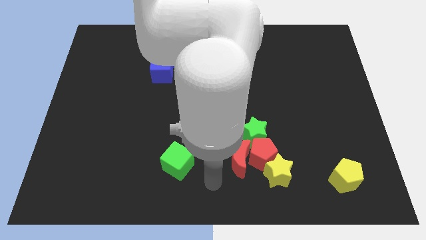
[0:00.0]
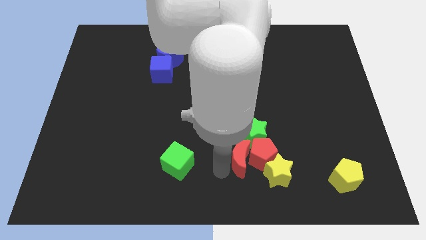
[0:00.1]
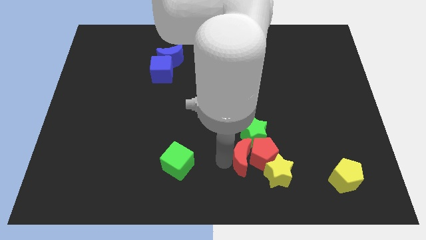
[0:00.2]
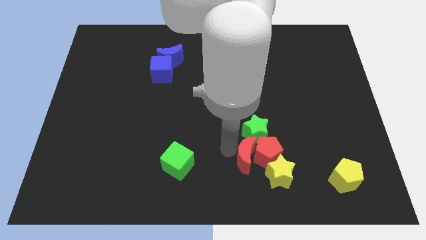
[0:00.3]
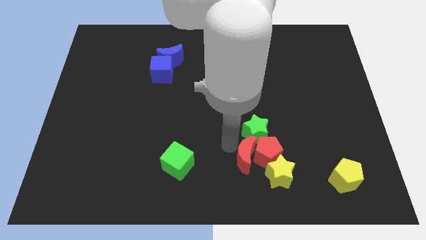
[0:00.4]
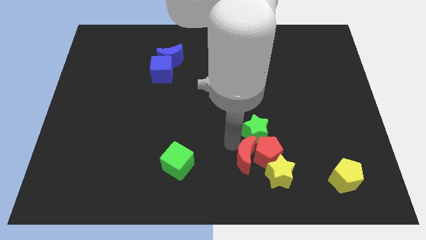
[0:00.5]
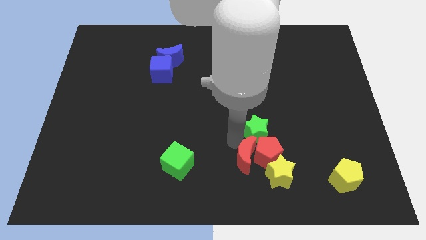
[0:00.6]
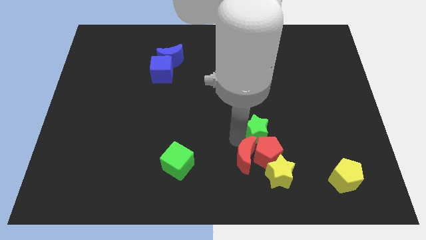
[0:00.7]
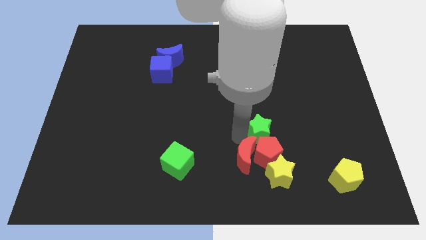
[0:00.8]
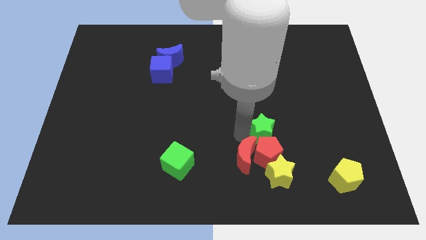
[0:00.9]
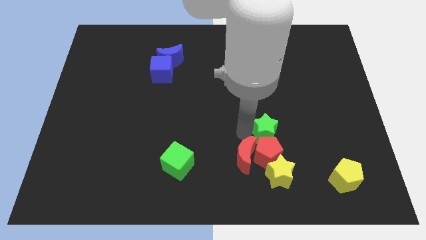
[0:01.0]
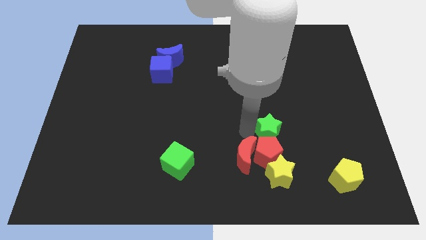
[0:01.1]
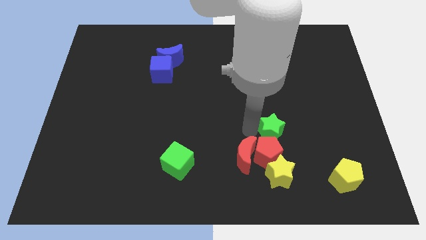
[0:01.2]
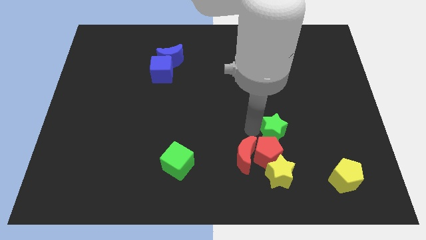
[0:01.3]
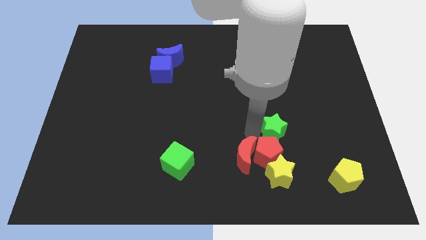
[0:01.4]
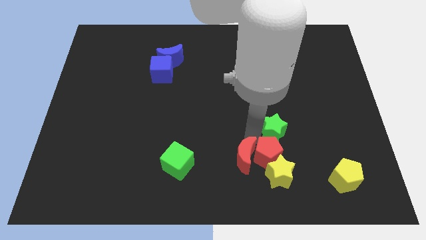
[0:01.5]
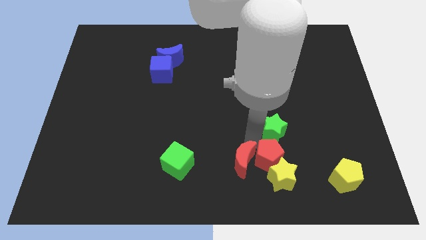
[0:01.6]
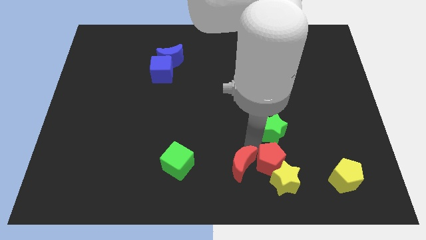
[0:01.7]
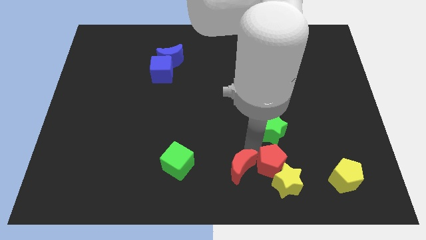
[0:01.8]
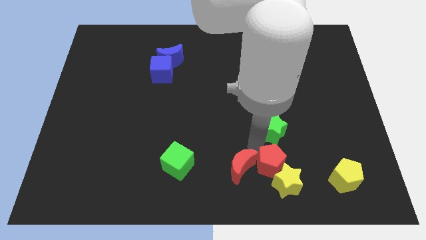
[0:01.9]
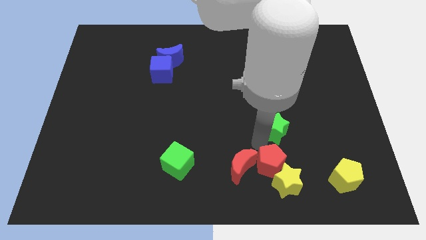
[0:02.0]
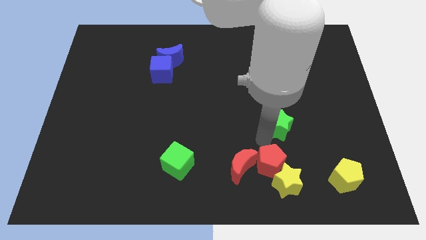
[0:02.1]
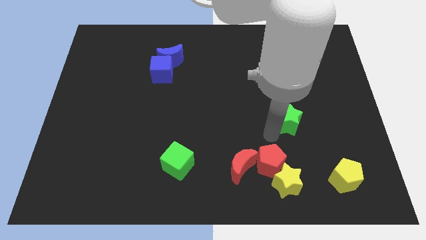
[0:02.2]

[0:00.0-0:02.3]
push the green star a little diagonally upwards and right

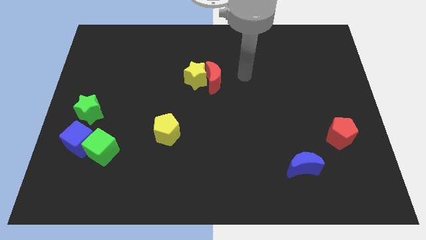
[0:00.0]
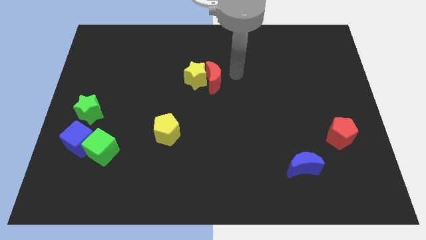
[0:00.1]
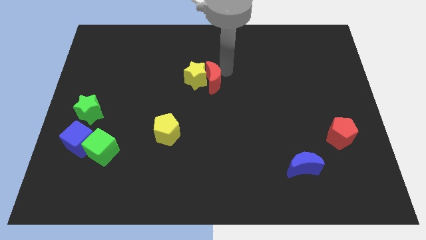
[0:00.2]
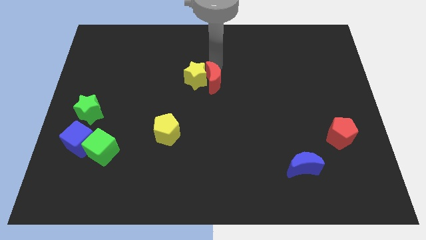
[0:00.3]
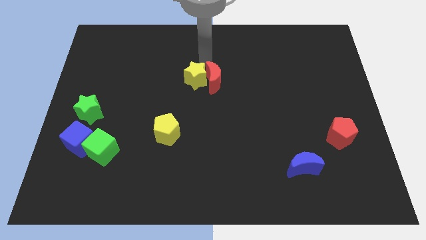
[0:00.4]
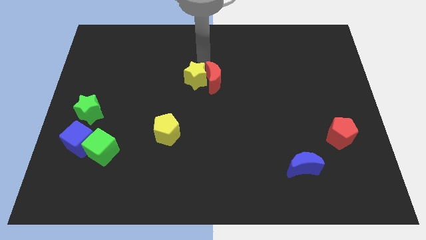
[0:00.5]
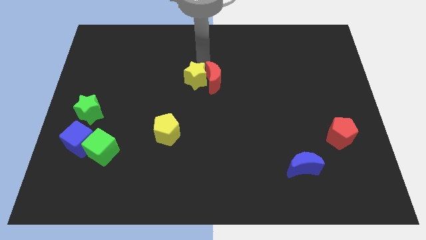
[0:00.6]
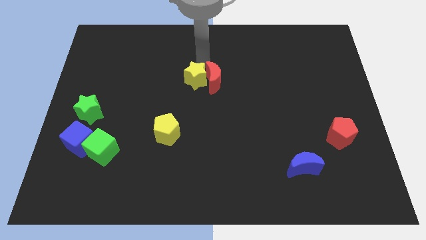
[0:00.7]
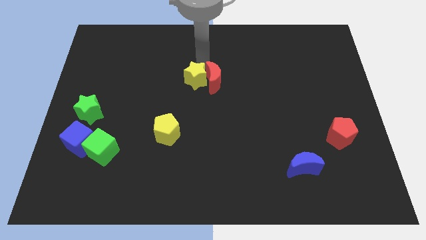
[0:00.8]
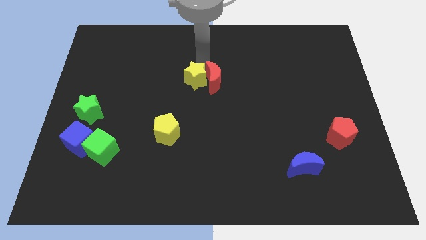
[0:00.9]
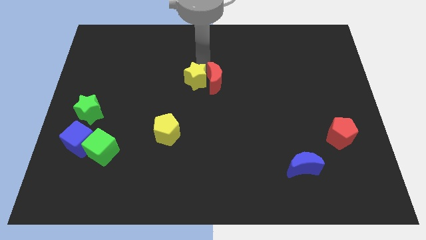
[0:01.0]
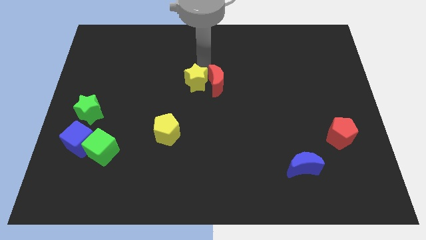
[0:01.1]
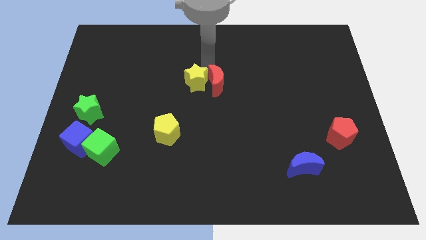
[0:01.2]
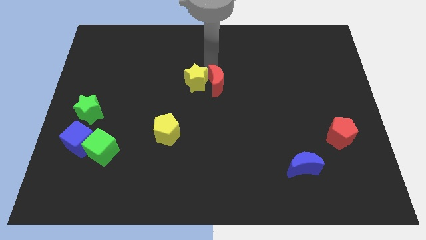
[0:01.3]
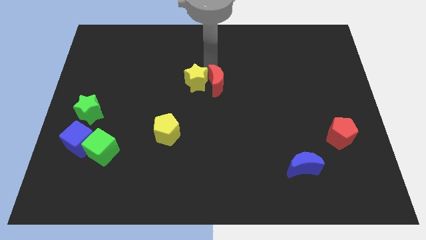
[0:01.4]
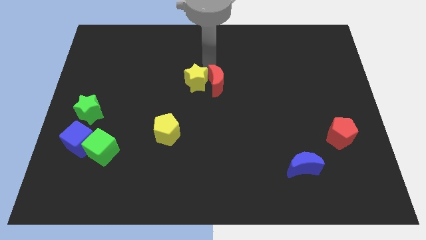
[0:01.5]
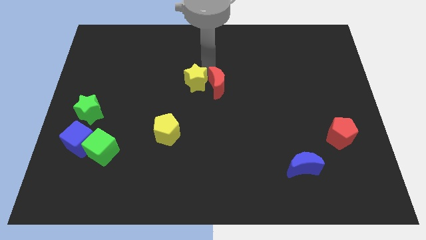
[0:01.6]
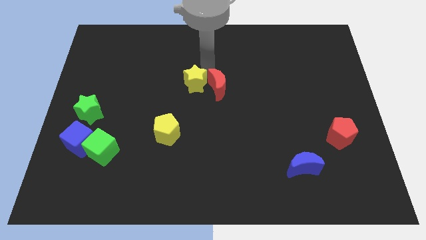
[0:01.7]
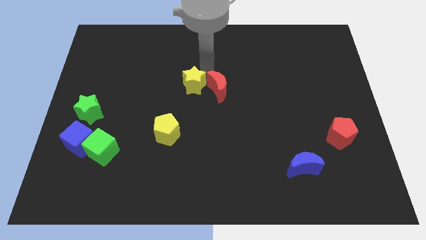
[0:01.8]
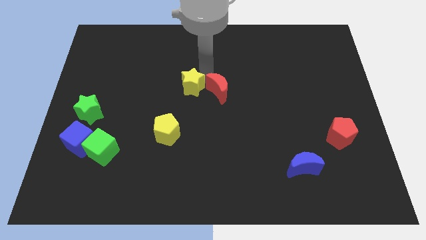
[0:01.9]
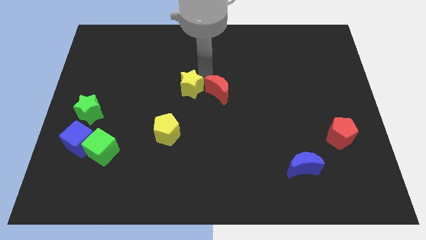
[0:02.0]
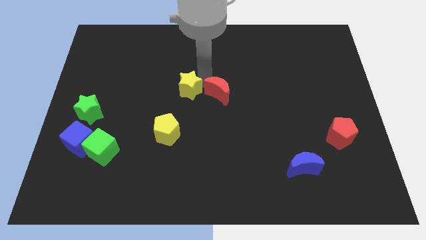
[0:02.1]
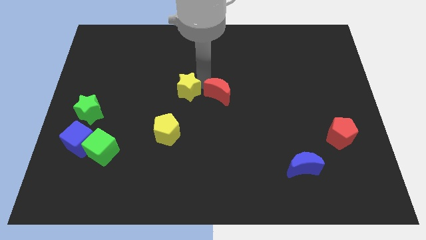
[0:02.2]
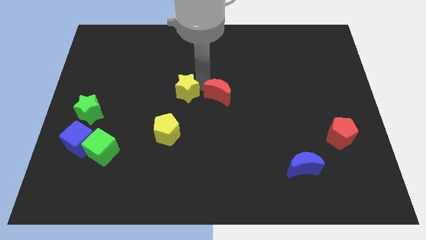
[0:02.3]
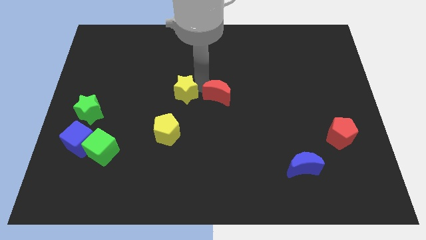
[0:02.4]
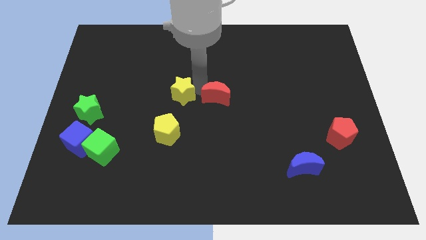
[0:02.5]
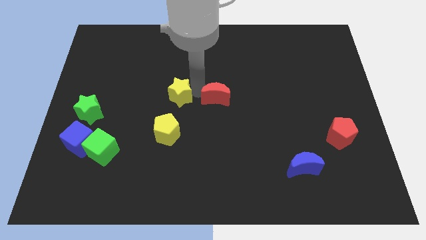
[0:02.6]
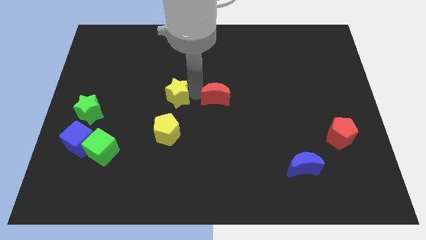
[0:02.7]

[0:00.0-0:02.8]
push the yellow star slightly diagonally downwards and left

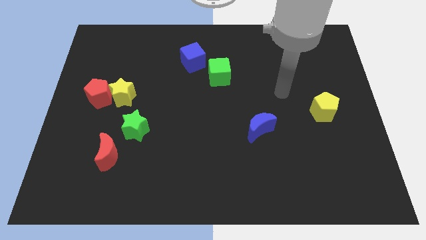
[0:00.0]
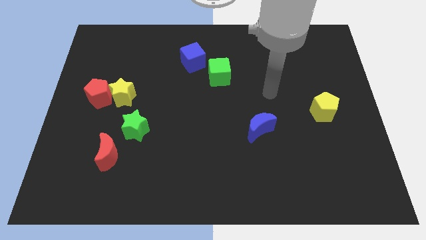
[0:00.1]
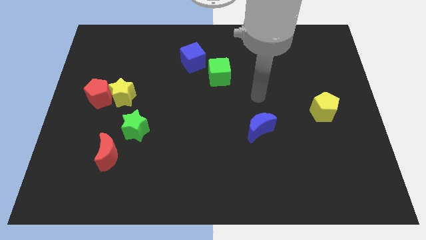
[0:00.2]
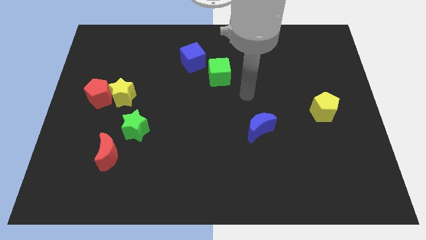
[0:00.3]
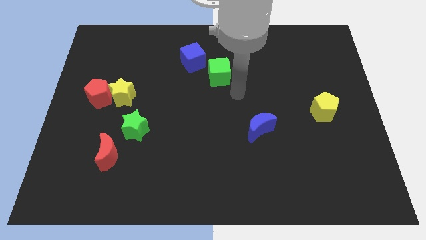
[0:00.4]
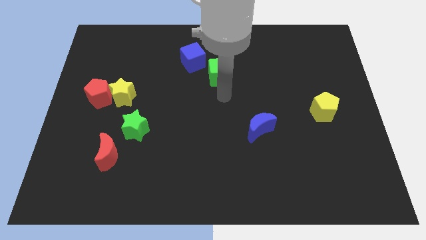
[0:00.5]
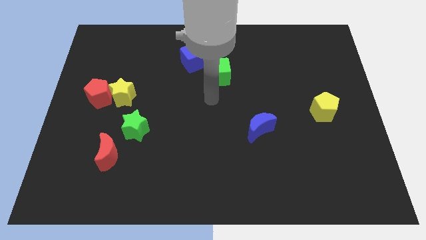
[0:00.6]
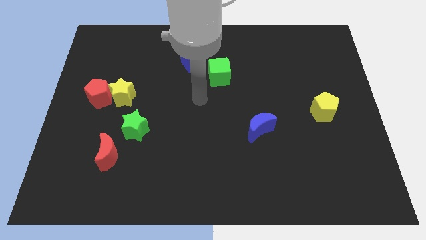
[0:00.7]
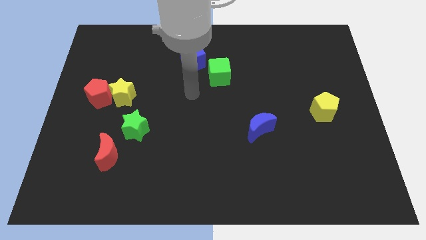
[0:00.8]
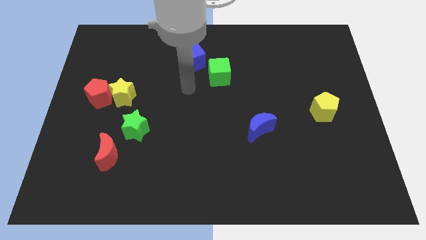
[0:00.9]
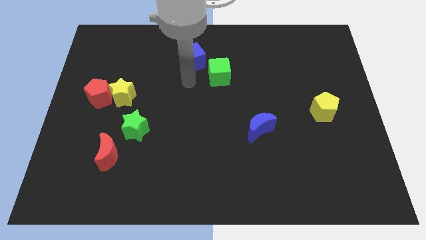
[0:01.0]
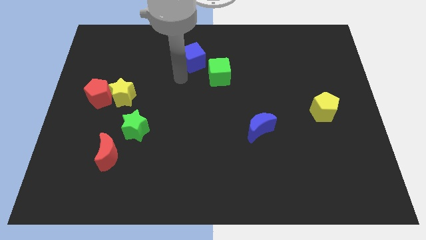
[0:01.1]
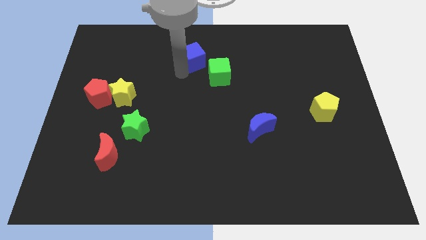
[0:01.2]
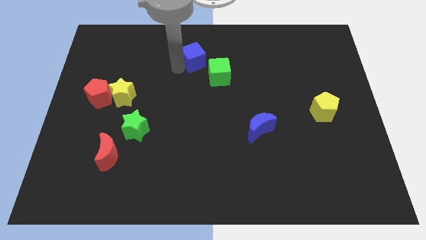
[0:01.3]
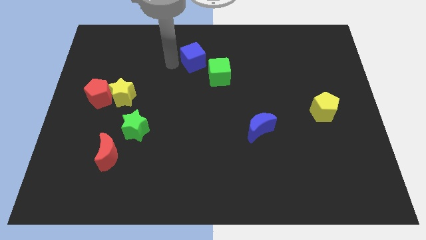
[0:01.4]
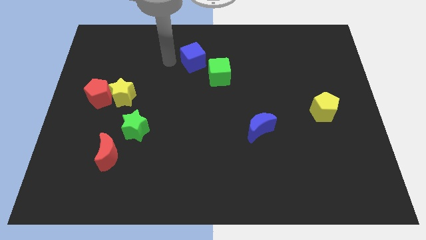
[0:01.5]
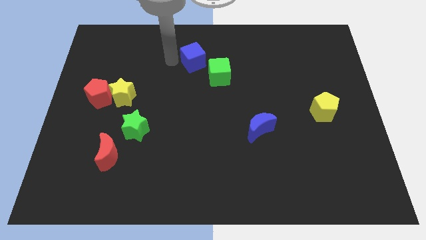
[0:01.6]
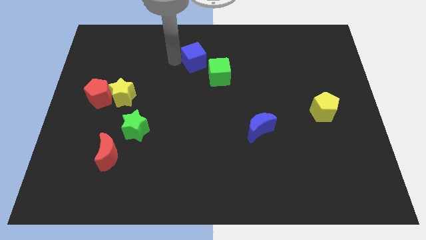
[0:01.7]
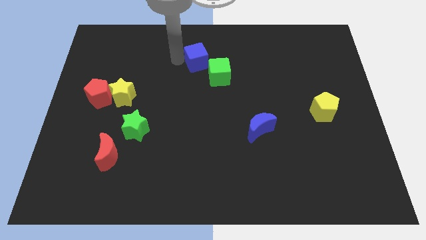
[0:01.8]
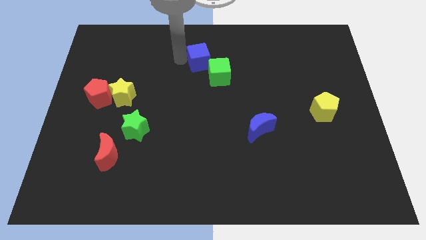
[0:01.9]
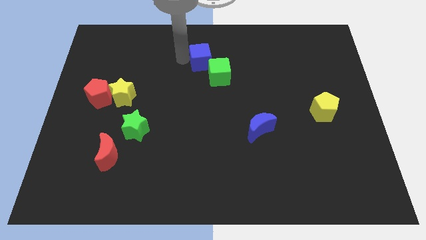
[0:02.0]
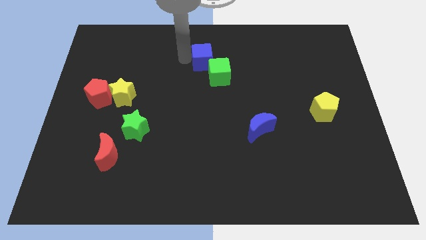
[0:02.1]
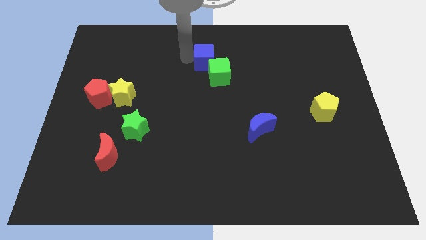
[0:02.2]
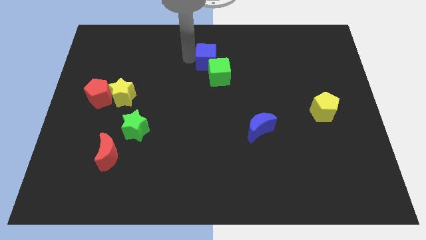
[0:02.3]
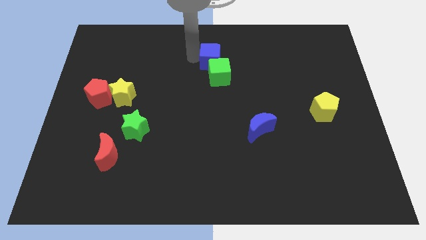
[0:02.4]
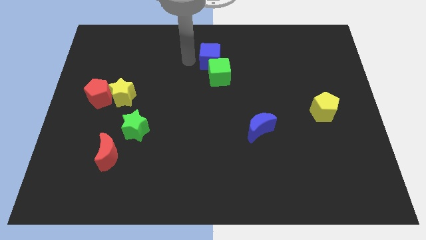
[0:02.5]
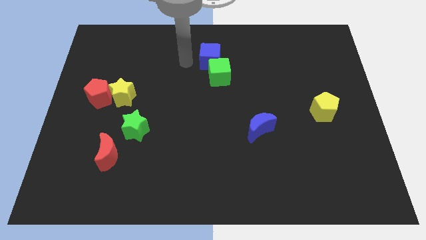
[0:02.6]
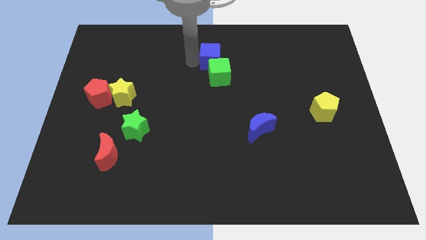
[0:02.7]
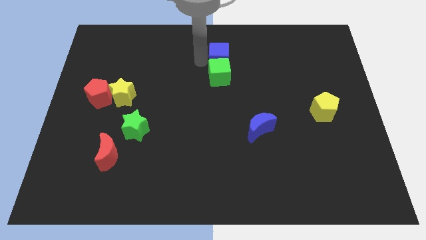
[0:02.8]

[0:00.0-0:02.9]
move the blue cube somewhat right

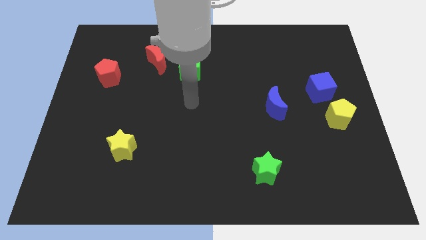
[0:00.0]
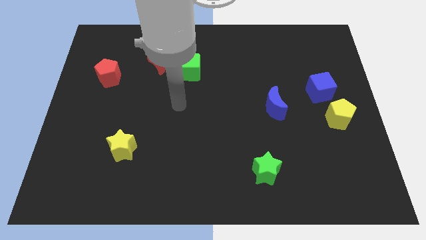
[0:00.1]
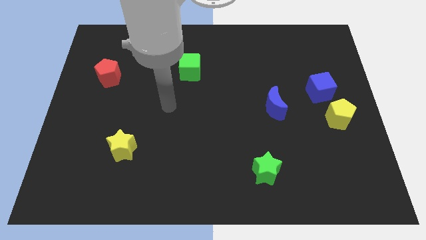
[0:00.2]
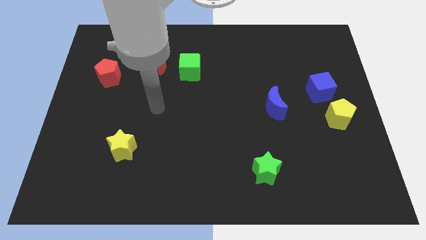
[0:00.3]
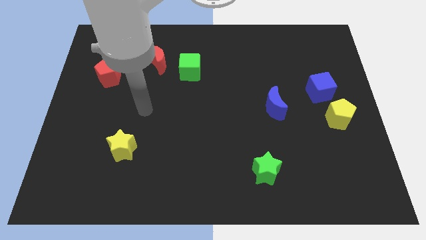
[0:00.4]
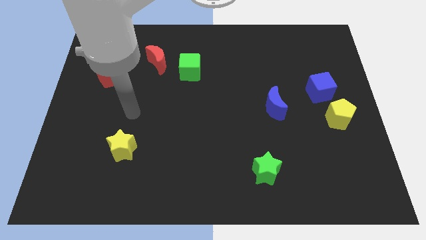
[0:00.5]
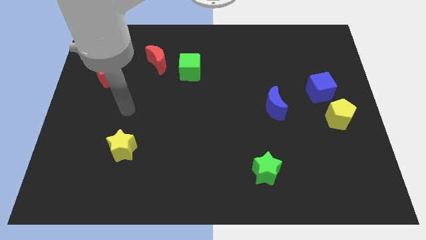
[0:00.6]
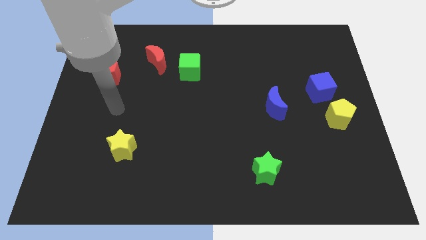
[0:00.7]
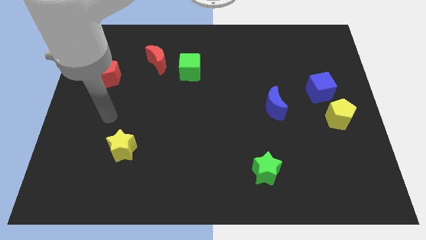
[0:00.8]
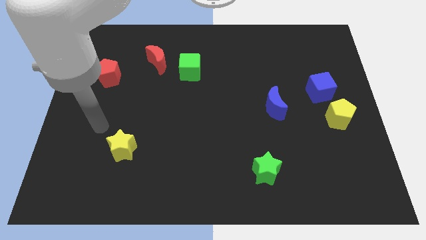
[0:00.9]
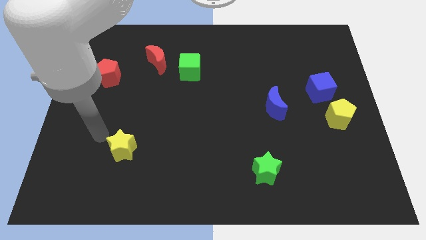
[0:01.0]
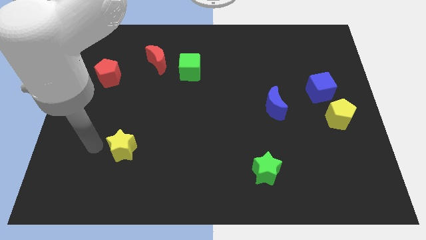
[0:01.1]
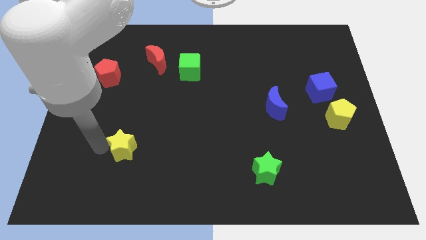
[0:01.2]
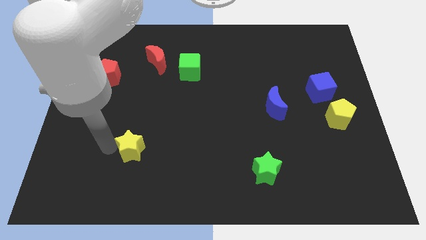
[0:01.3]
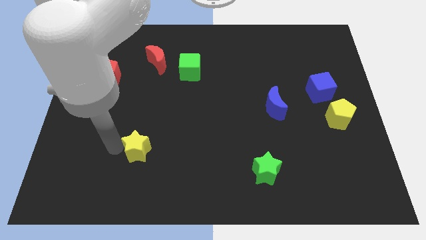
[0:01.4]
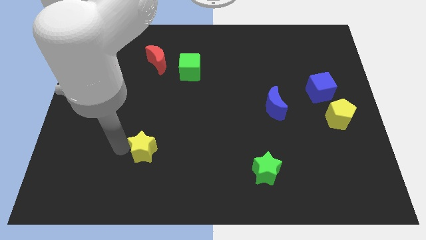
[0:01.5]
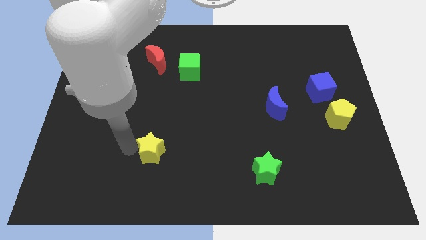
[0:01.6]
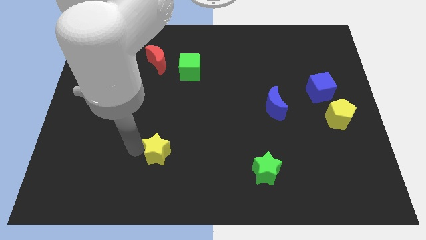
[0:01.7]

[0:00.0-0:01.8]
slightly push the yellow star to the right
